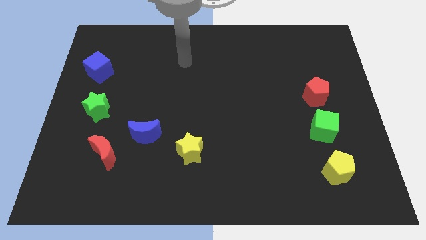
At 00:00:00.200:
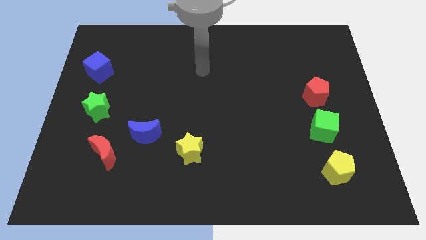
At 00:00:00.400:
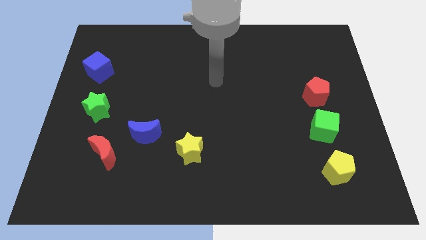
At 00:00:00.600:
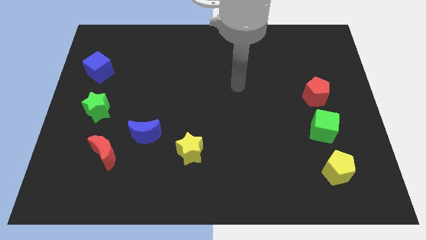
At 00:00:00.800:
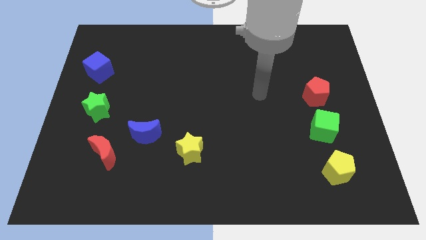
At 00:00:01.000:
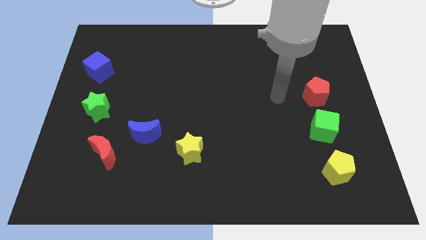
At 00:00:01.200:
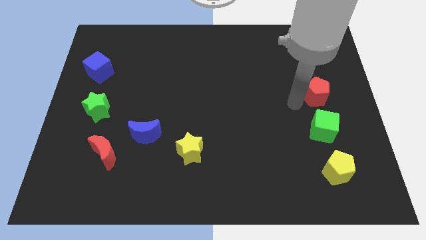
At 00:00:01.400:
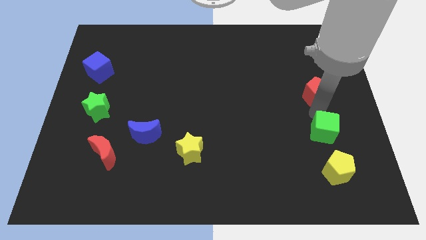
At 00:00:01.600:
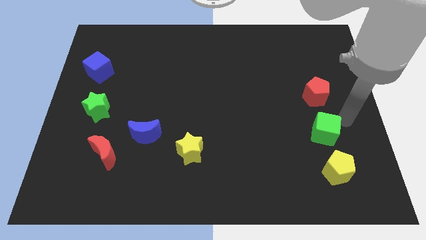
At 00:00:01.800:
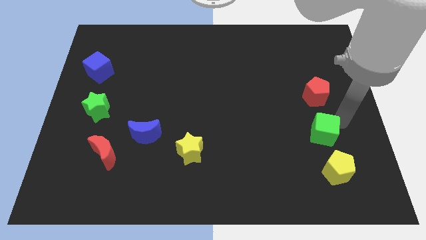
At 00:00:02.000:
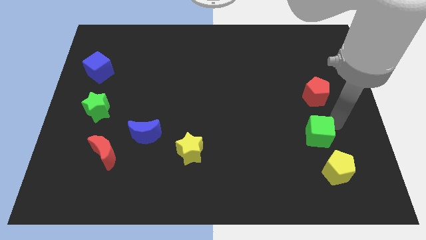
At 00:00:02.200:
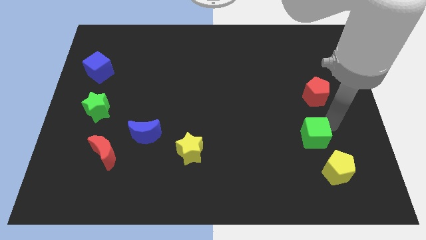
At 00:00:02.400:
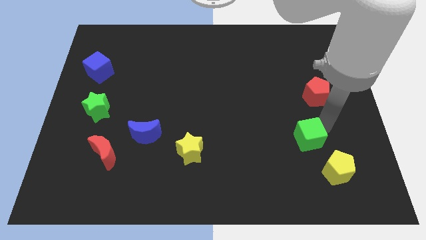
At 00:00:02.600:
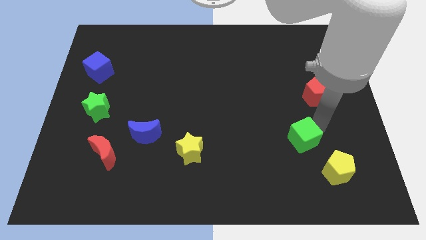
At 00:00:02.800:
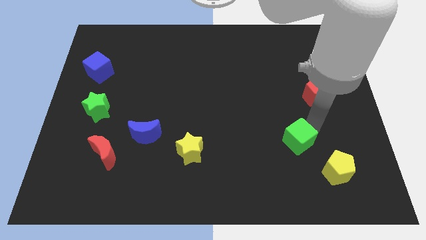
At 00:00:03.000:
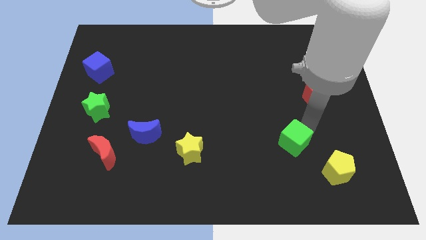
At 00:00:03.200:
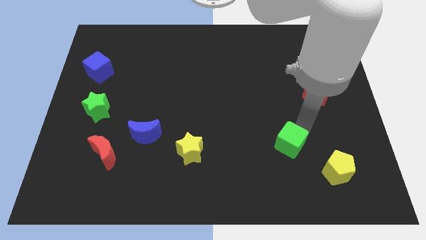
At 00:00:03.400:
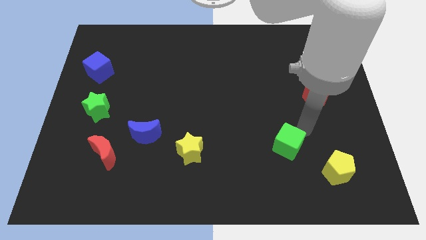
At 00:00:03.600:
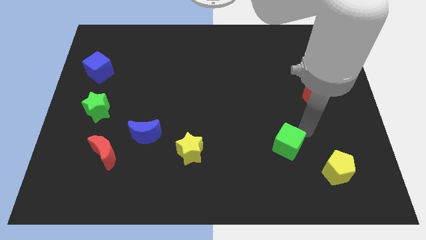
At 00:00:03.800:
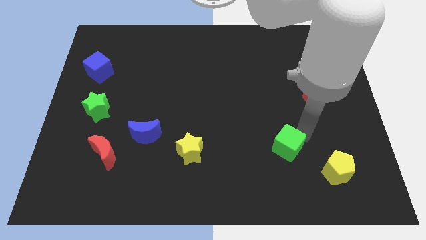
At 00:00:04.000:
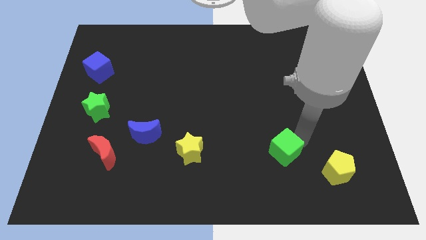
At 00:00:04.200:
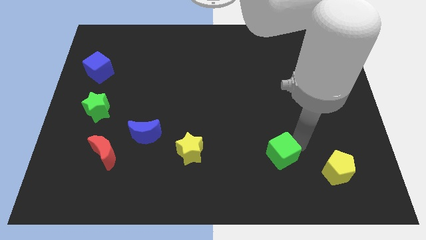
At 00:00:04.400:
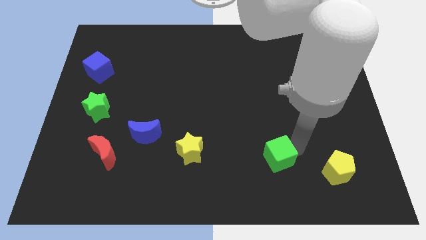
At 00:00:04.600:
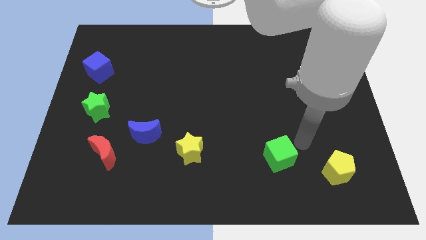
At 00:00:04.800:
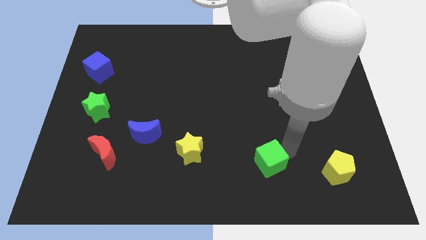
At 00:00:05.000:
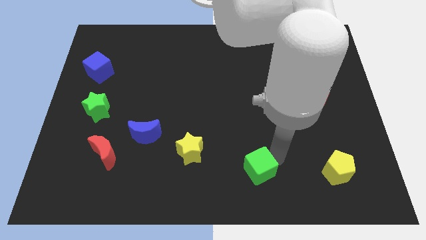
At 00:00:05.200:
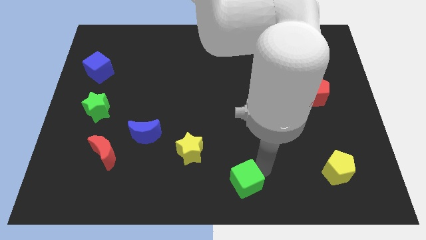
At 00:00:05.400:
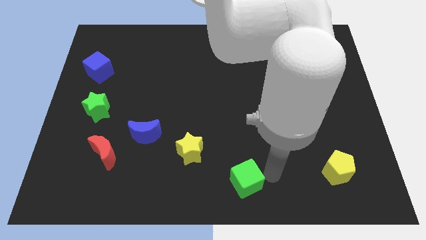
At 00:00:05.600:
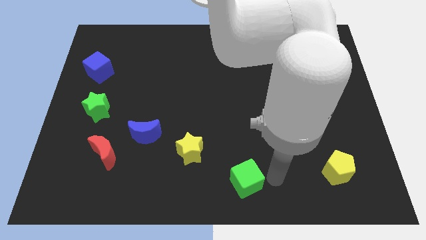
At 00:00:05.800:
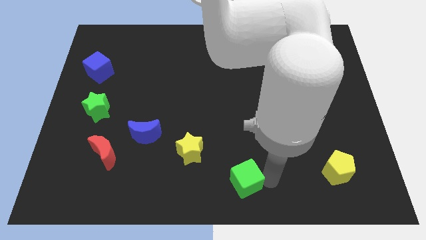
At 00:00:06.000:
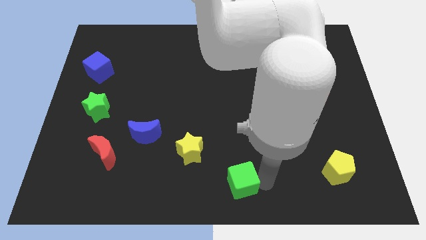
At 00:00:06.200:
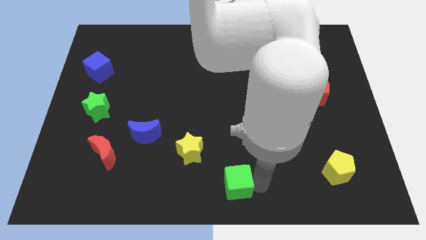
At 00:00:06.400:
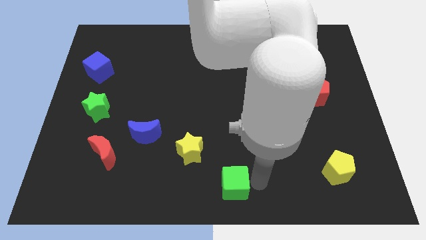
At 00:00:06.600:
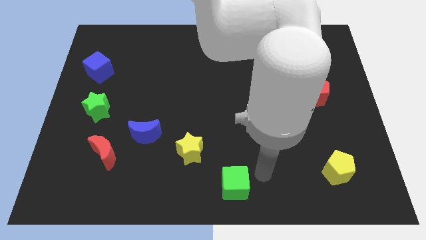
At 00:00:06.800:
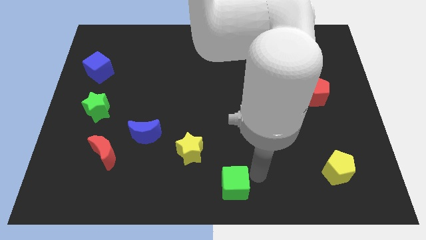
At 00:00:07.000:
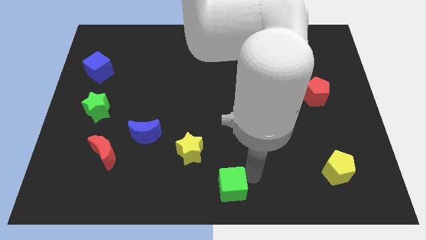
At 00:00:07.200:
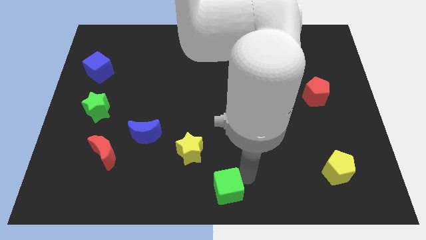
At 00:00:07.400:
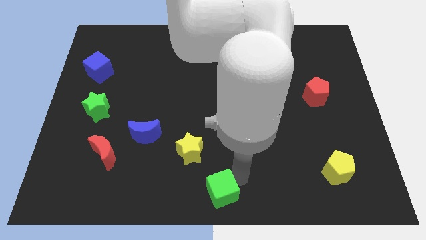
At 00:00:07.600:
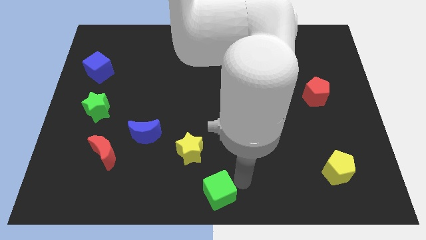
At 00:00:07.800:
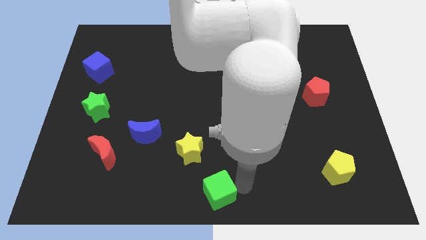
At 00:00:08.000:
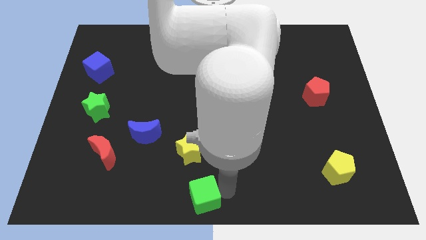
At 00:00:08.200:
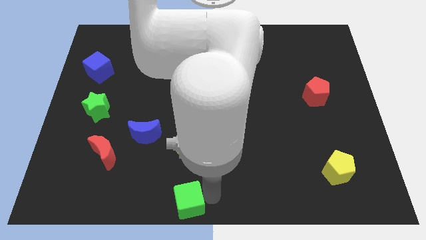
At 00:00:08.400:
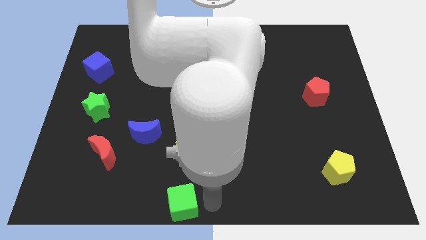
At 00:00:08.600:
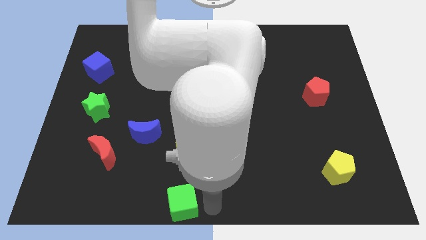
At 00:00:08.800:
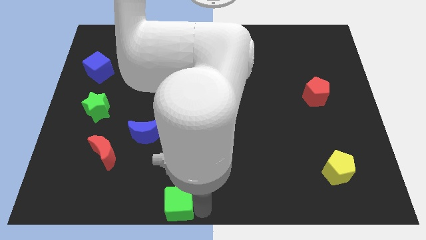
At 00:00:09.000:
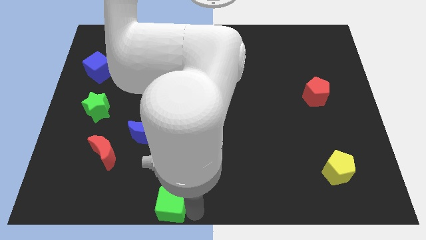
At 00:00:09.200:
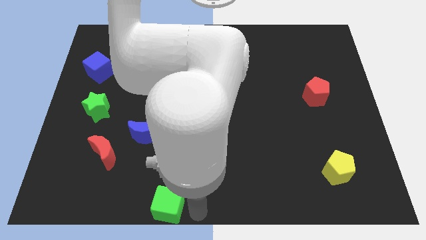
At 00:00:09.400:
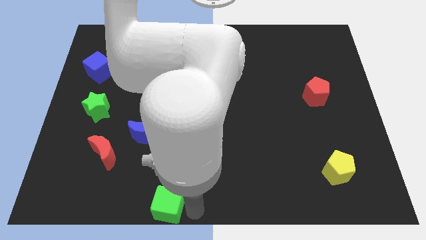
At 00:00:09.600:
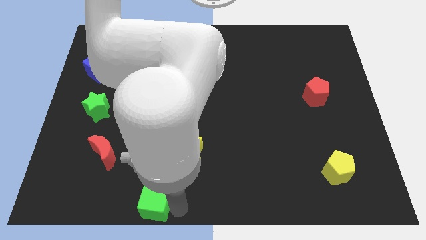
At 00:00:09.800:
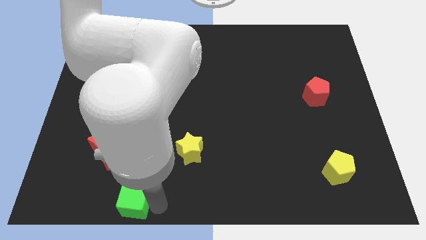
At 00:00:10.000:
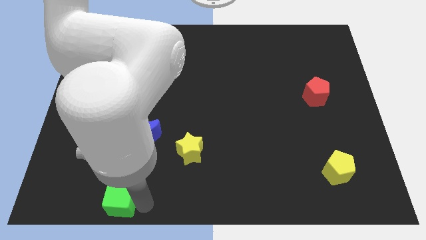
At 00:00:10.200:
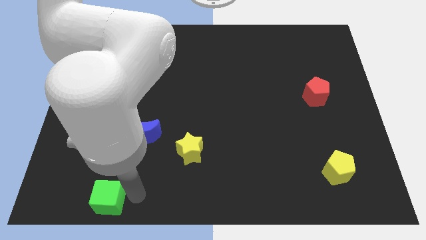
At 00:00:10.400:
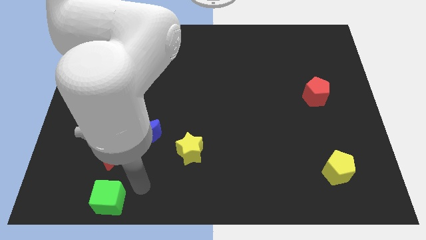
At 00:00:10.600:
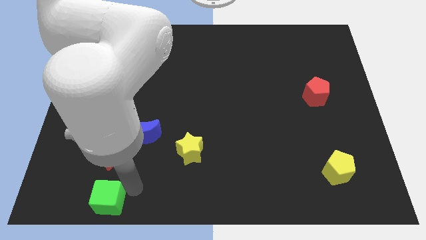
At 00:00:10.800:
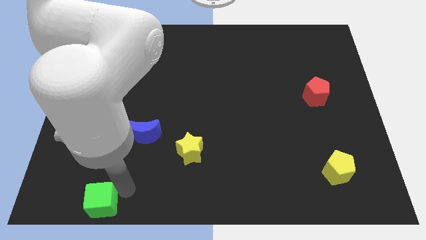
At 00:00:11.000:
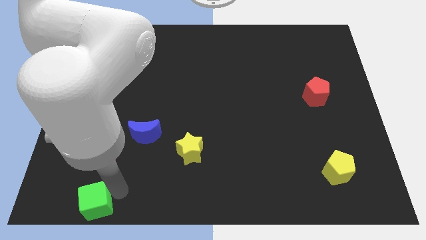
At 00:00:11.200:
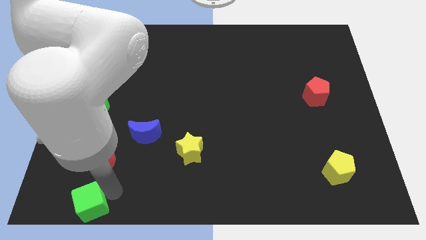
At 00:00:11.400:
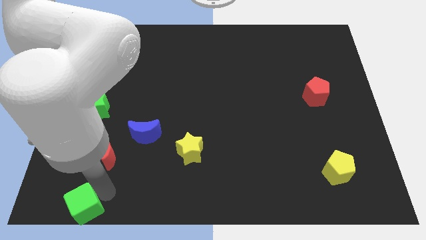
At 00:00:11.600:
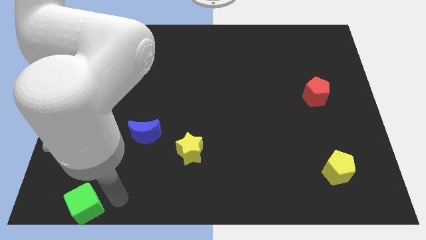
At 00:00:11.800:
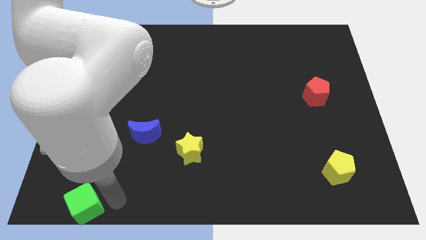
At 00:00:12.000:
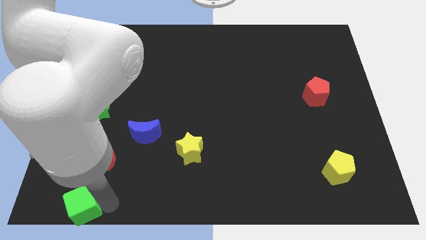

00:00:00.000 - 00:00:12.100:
slide the green cube to the bottom left
